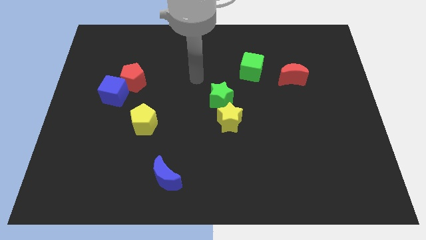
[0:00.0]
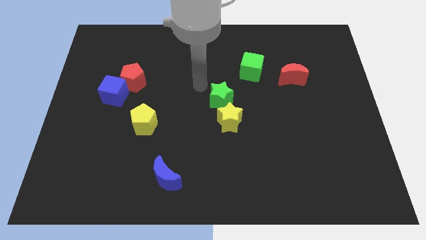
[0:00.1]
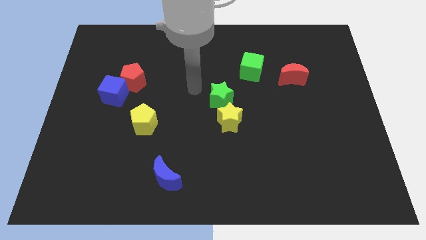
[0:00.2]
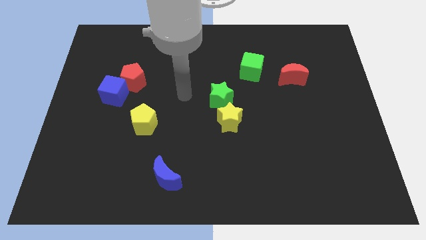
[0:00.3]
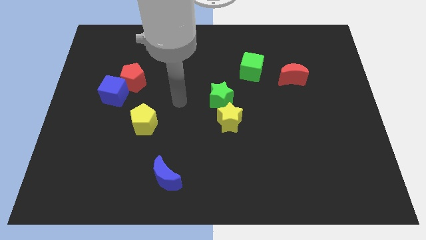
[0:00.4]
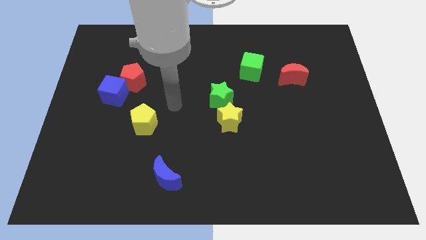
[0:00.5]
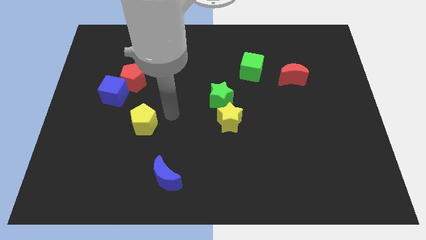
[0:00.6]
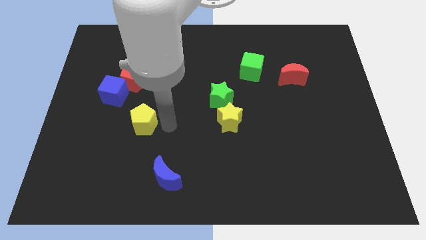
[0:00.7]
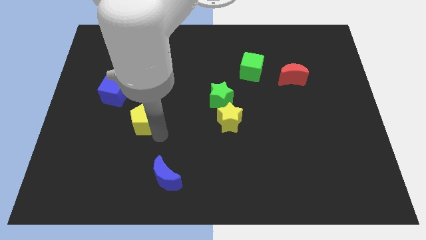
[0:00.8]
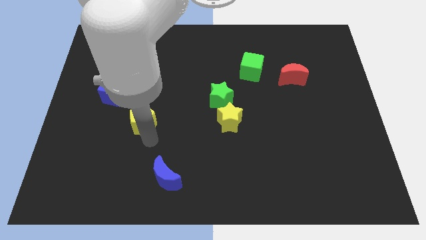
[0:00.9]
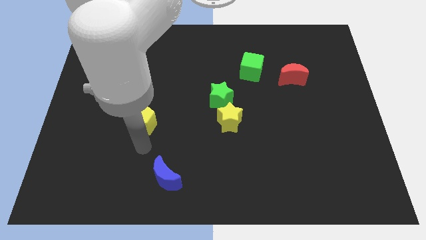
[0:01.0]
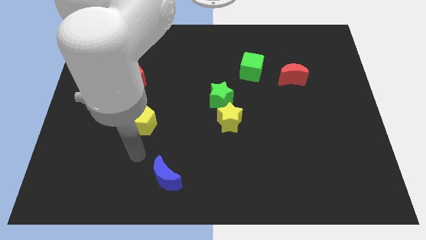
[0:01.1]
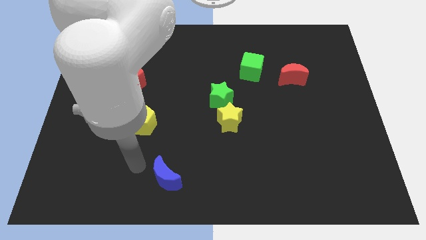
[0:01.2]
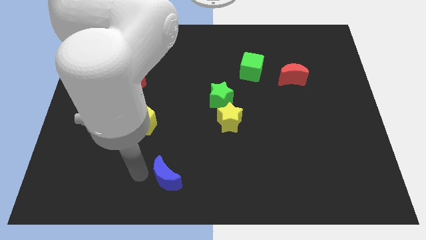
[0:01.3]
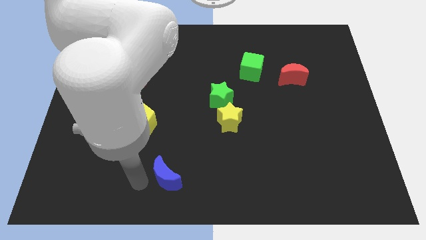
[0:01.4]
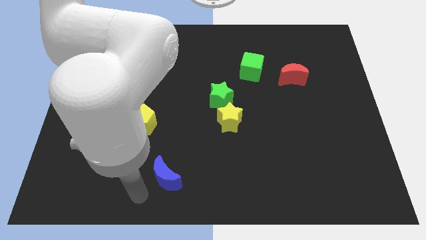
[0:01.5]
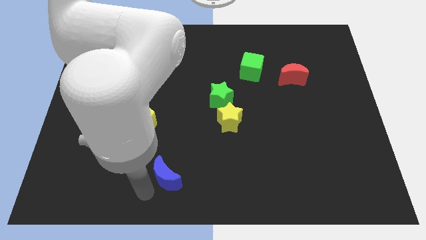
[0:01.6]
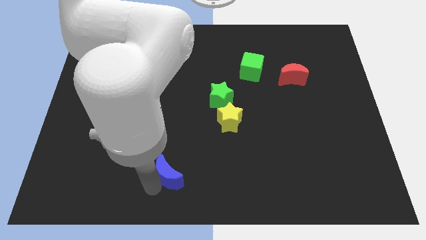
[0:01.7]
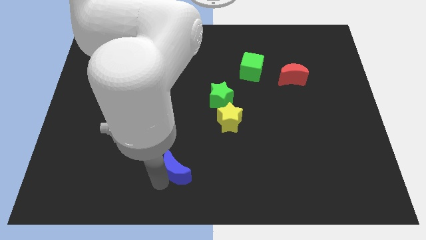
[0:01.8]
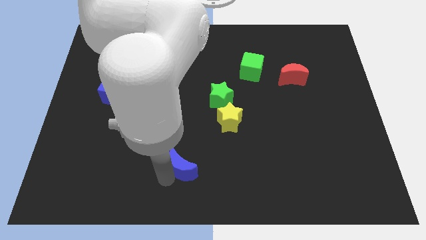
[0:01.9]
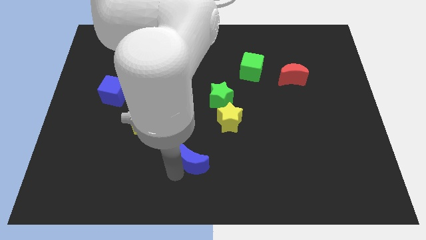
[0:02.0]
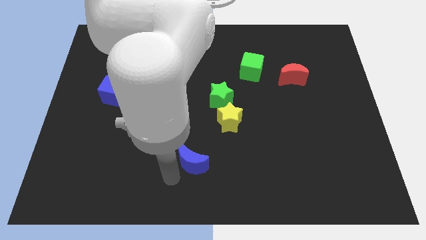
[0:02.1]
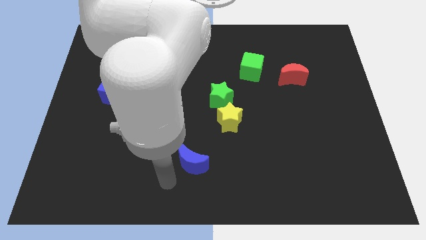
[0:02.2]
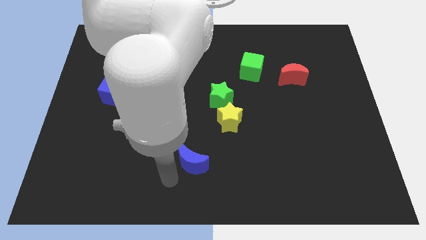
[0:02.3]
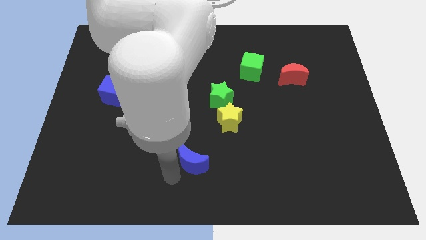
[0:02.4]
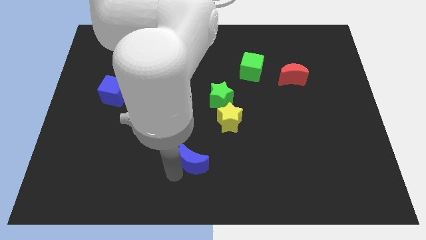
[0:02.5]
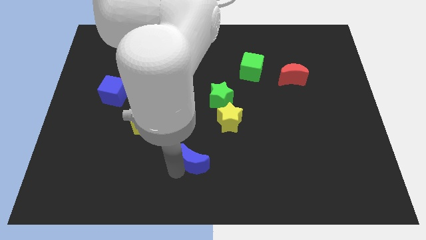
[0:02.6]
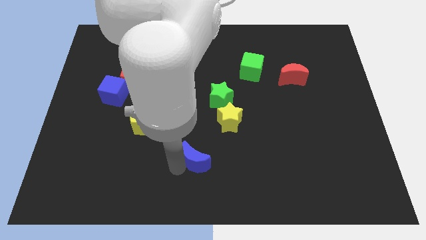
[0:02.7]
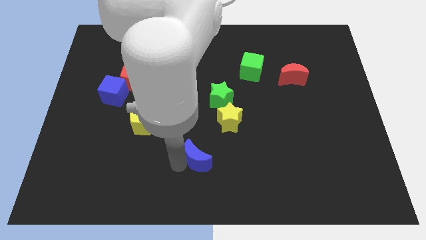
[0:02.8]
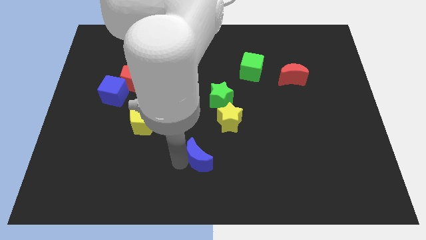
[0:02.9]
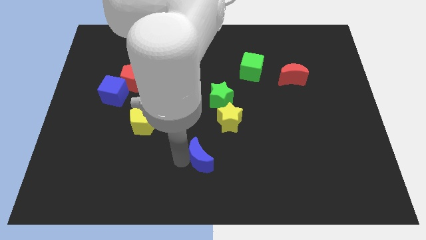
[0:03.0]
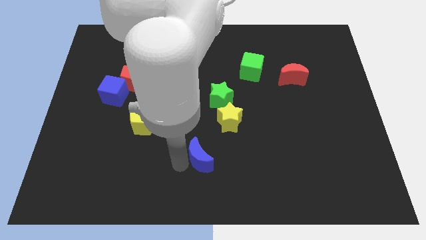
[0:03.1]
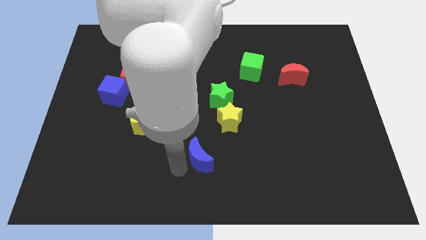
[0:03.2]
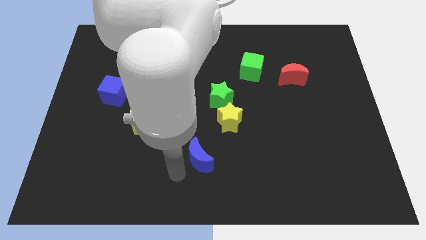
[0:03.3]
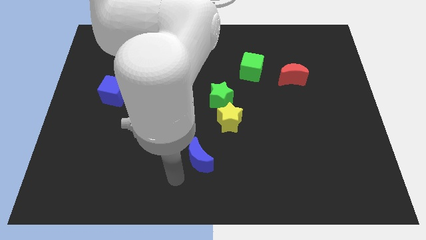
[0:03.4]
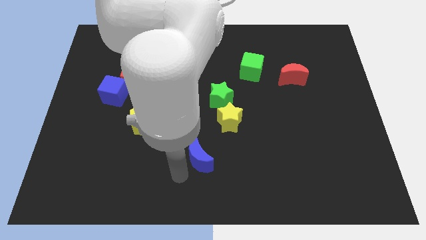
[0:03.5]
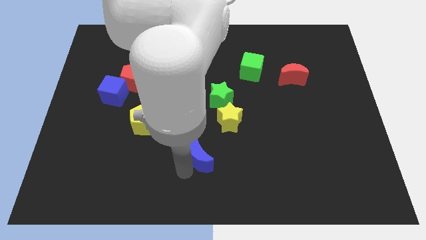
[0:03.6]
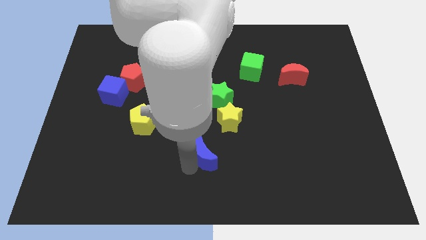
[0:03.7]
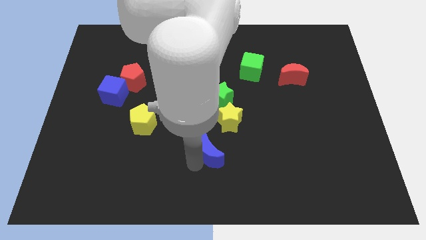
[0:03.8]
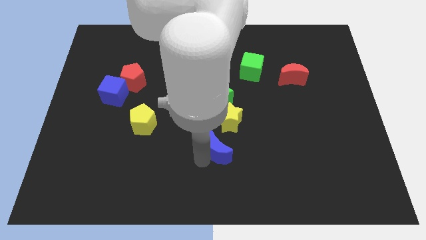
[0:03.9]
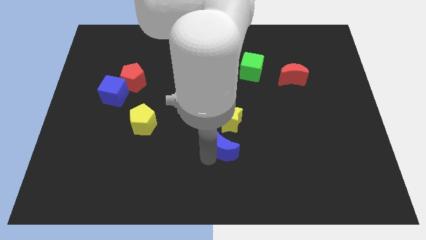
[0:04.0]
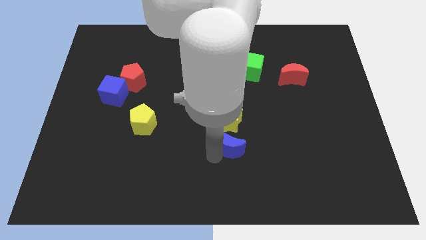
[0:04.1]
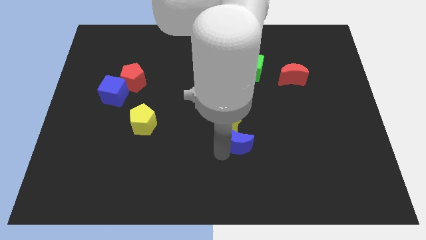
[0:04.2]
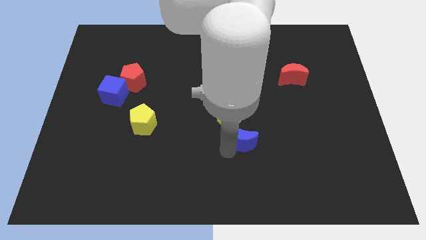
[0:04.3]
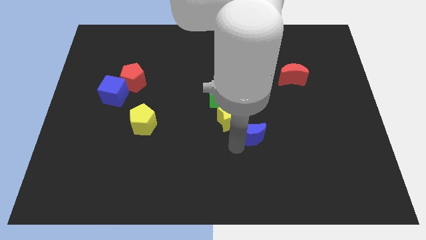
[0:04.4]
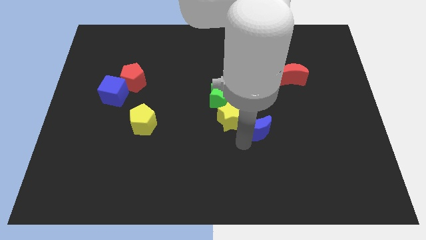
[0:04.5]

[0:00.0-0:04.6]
push the blue moon diagonally upwards and to the right

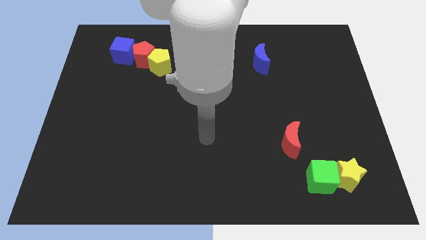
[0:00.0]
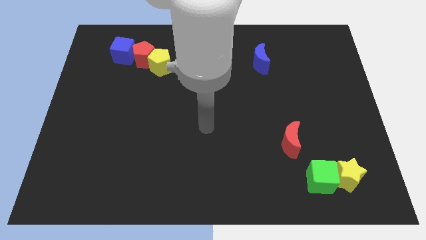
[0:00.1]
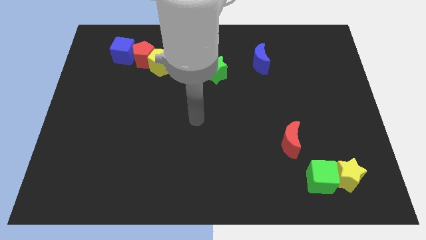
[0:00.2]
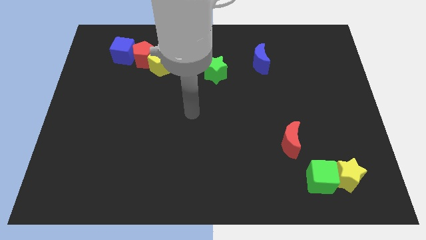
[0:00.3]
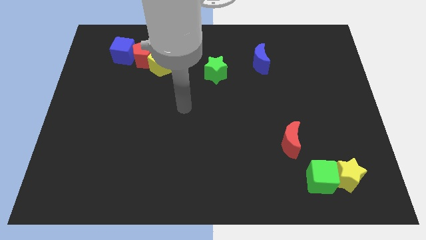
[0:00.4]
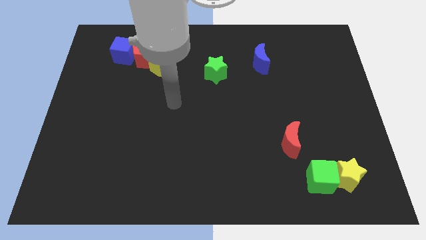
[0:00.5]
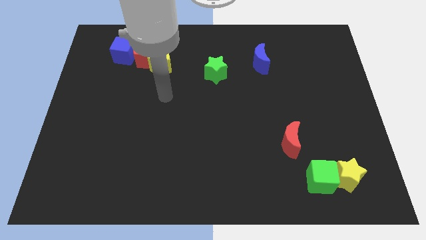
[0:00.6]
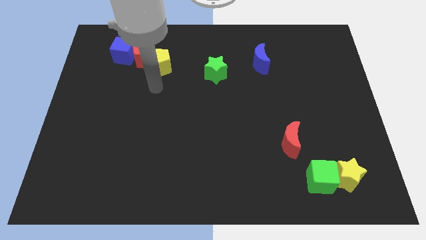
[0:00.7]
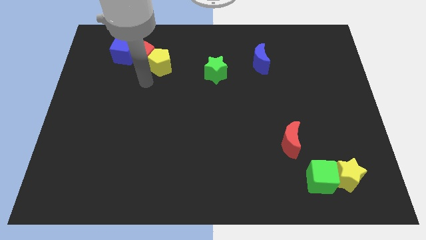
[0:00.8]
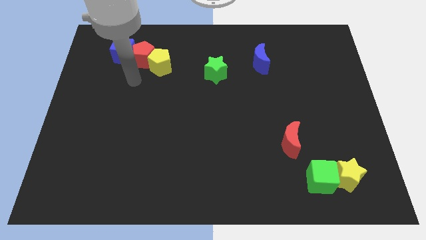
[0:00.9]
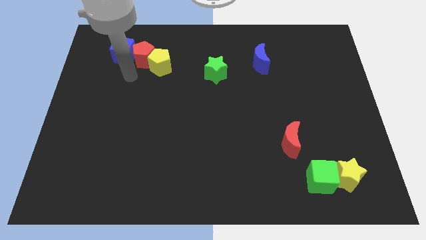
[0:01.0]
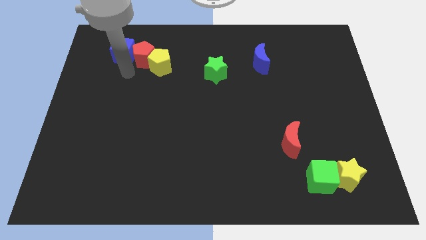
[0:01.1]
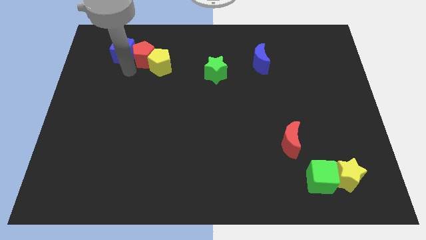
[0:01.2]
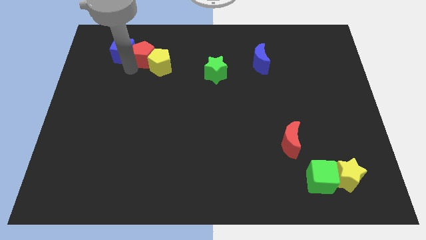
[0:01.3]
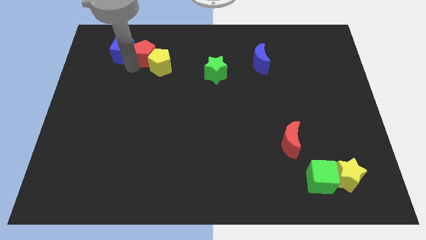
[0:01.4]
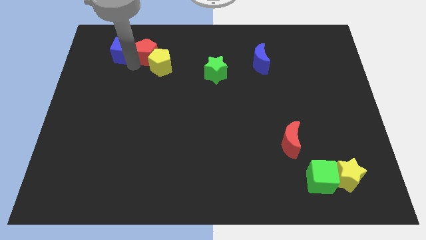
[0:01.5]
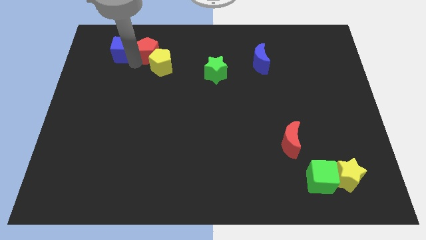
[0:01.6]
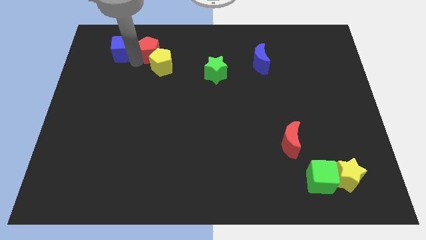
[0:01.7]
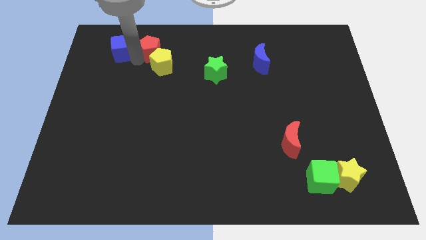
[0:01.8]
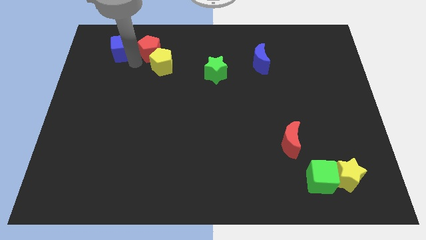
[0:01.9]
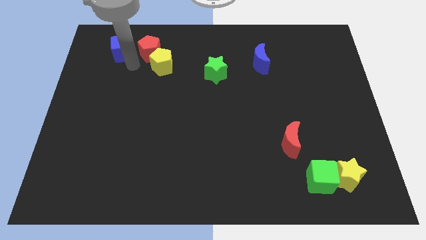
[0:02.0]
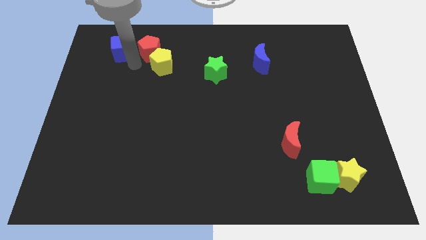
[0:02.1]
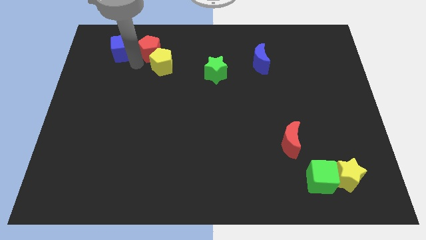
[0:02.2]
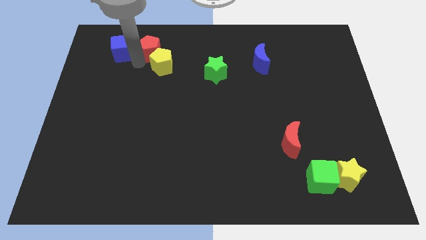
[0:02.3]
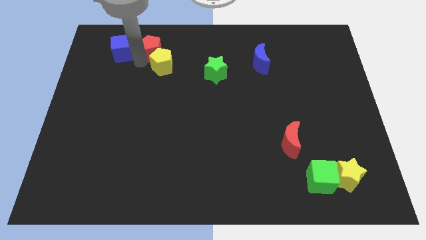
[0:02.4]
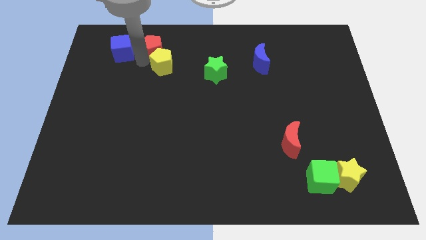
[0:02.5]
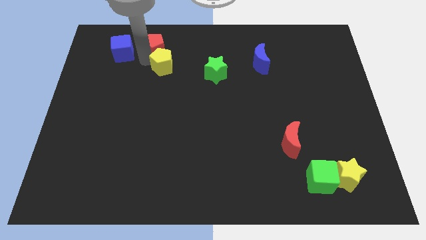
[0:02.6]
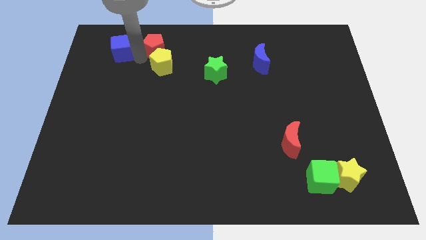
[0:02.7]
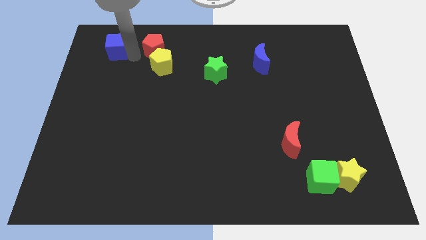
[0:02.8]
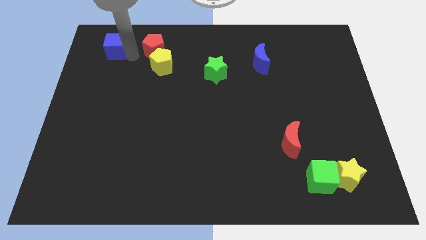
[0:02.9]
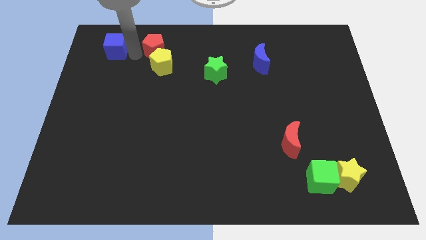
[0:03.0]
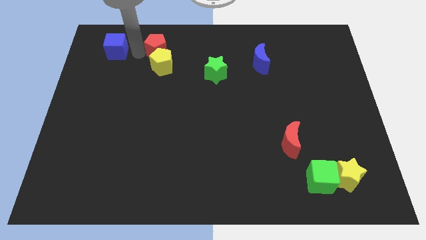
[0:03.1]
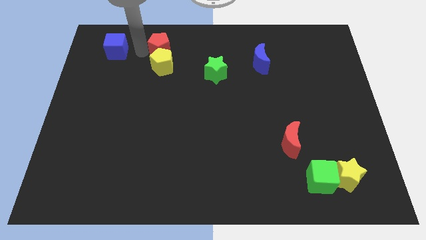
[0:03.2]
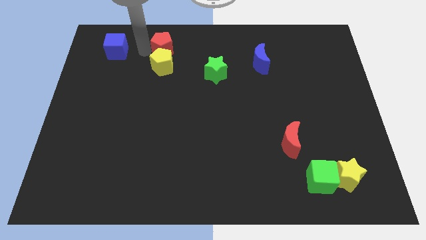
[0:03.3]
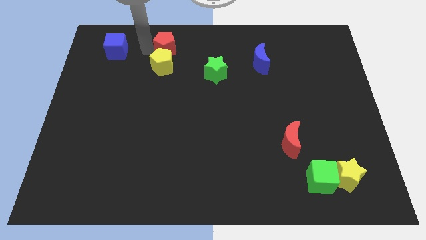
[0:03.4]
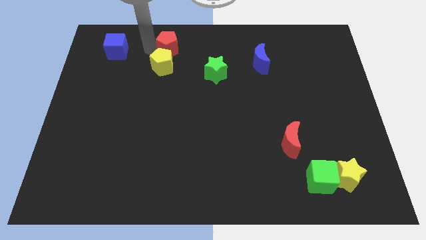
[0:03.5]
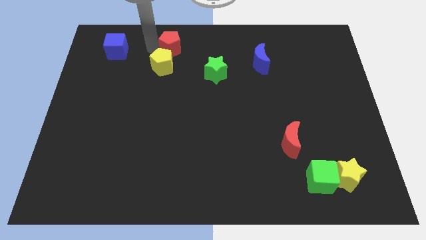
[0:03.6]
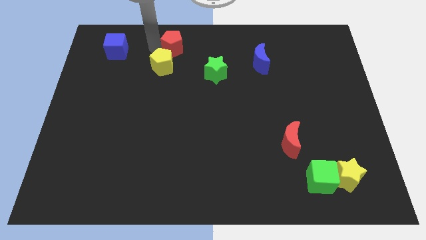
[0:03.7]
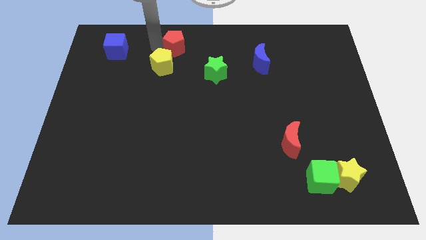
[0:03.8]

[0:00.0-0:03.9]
slightly slide the red pentagon to the right
